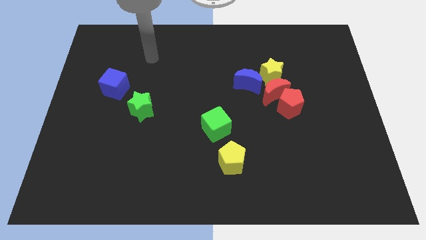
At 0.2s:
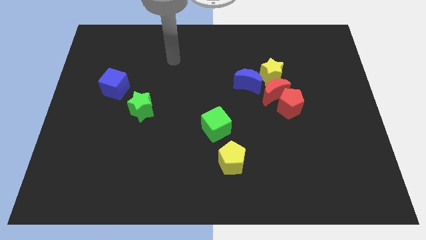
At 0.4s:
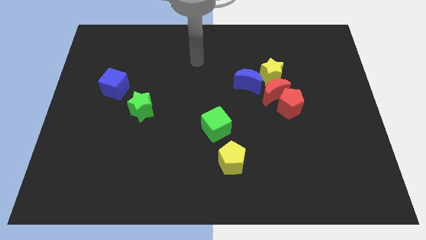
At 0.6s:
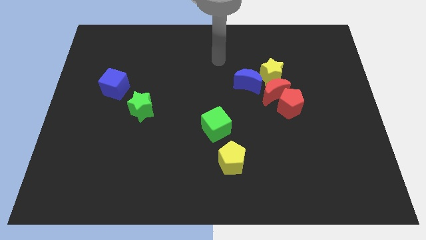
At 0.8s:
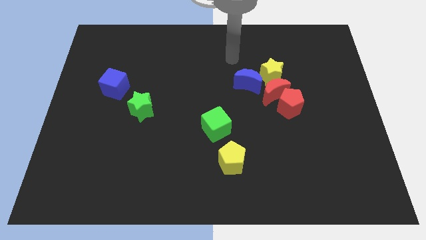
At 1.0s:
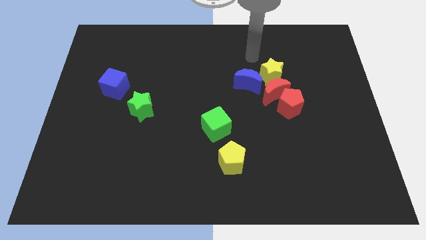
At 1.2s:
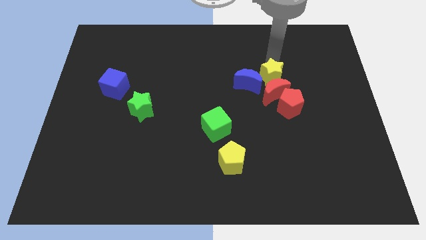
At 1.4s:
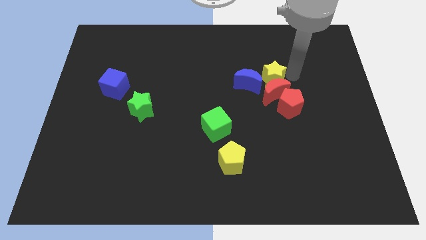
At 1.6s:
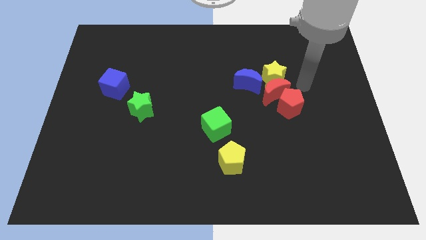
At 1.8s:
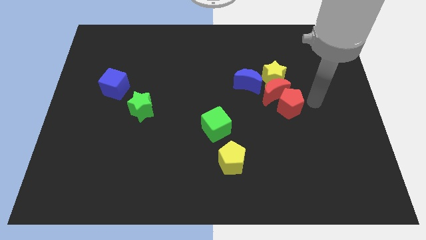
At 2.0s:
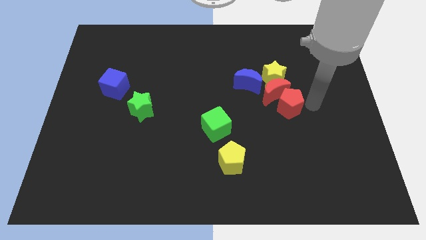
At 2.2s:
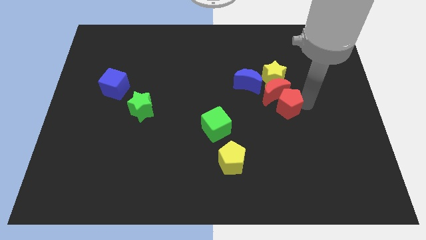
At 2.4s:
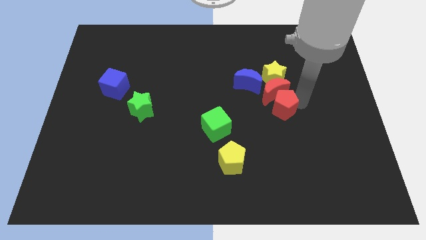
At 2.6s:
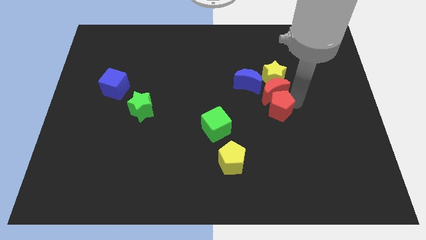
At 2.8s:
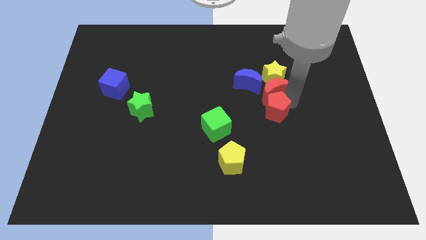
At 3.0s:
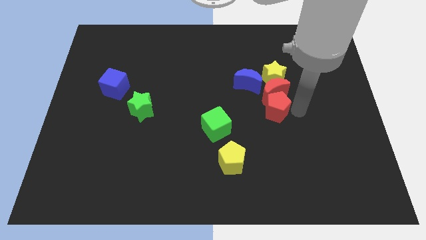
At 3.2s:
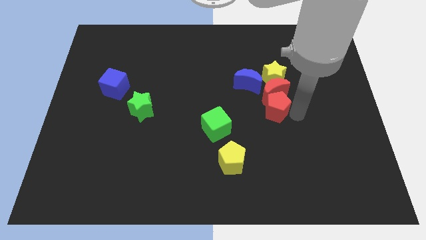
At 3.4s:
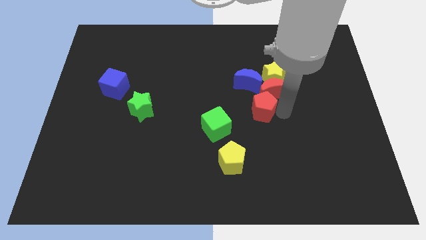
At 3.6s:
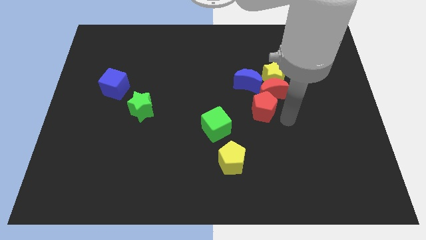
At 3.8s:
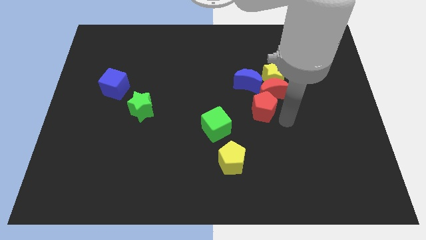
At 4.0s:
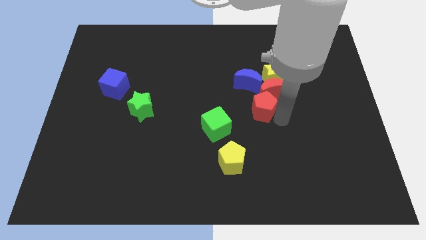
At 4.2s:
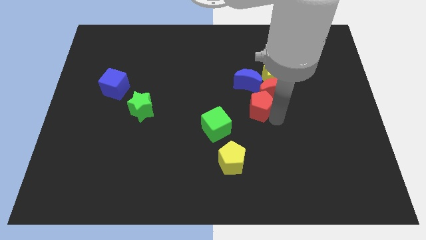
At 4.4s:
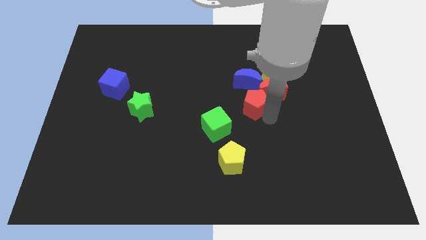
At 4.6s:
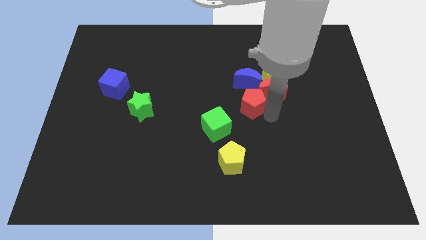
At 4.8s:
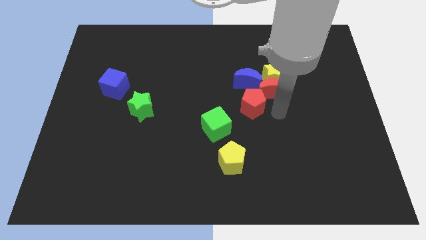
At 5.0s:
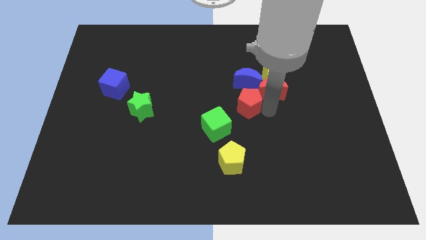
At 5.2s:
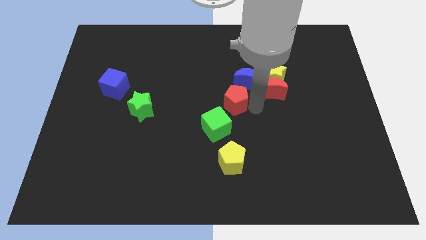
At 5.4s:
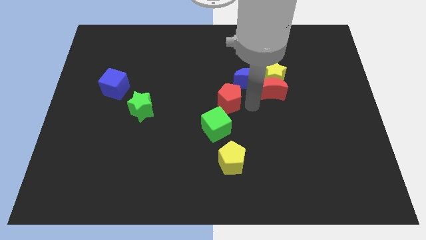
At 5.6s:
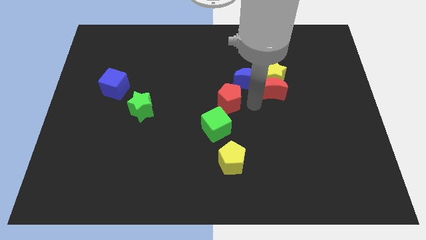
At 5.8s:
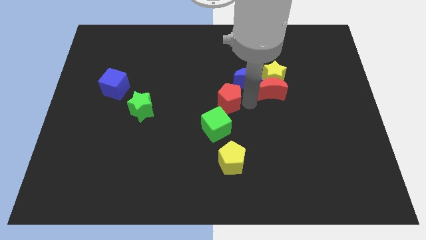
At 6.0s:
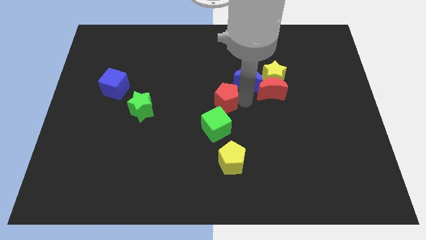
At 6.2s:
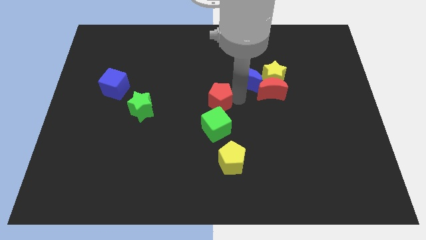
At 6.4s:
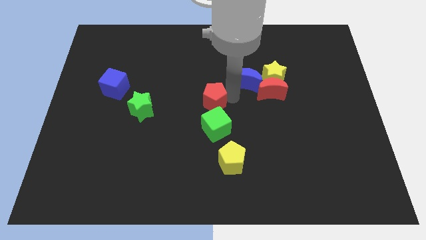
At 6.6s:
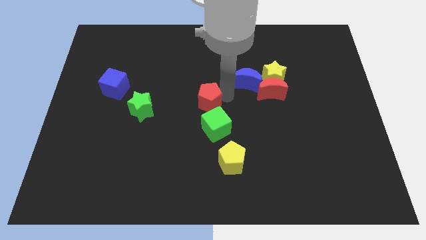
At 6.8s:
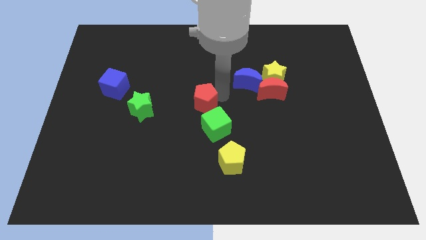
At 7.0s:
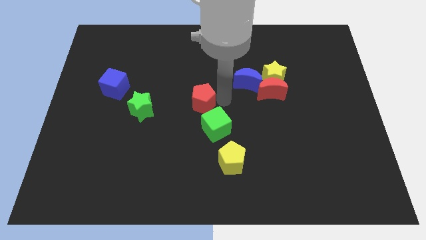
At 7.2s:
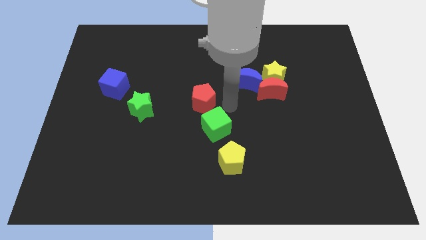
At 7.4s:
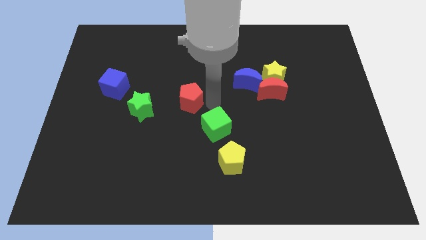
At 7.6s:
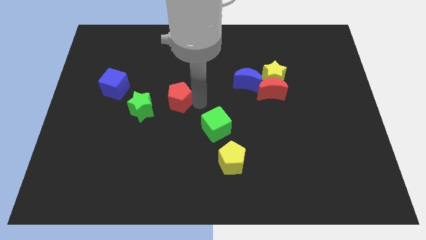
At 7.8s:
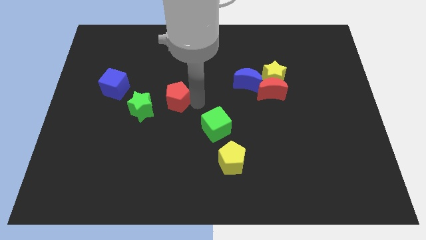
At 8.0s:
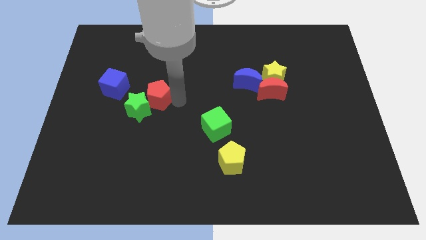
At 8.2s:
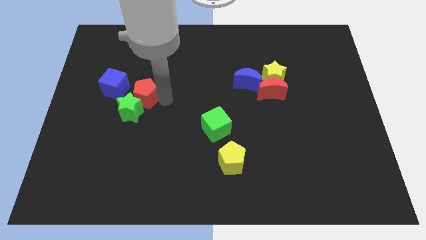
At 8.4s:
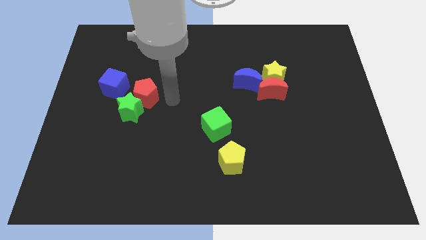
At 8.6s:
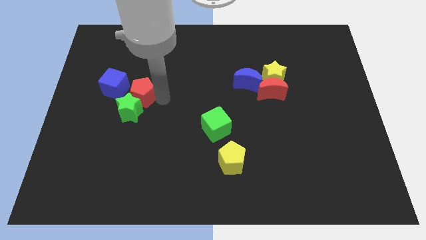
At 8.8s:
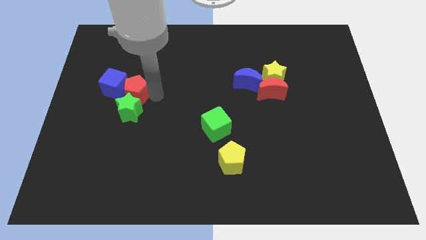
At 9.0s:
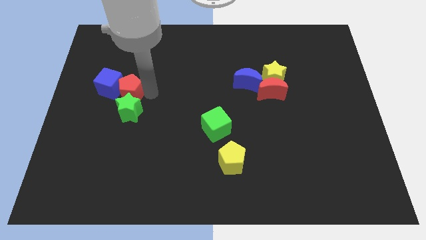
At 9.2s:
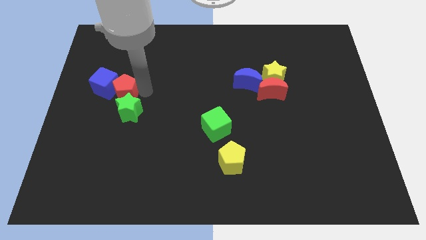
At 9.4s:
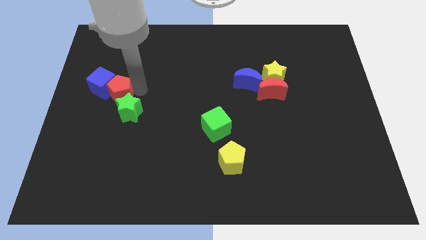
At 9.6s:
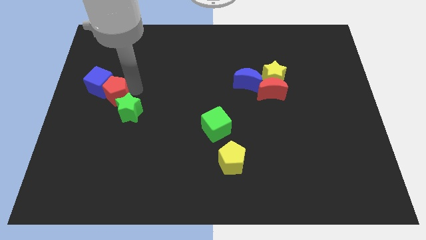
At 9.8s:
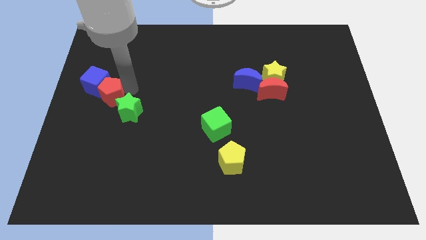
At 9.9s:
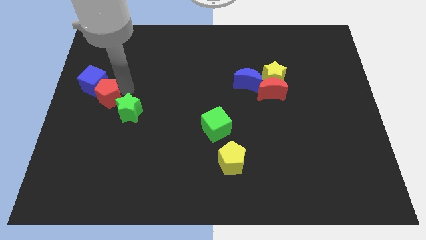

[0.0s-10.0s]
push the red pentagon to the left side
